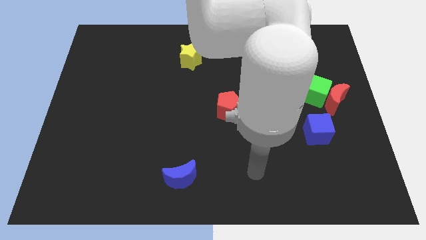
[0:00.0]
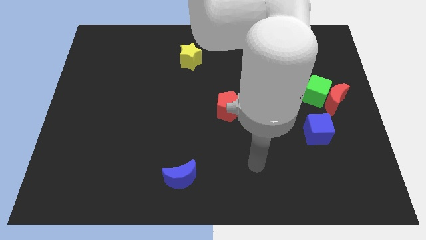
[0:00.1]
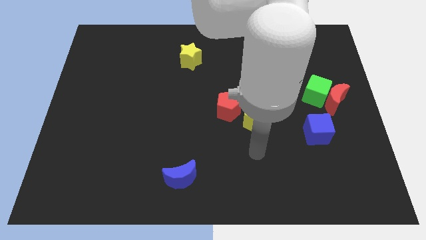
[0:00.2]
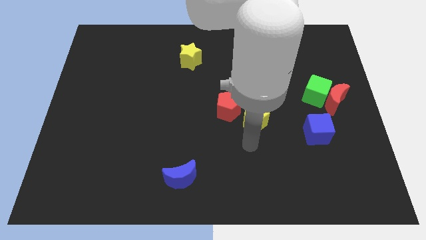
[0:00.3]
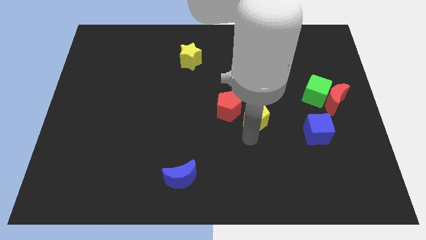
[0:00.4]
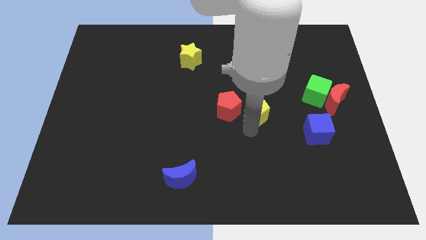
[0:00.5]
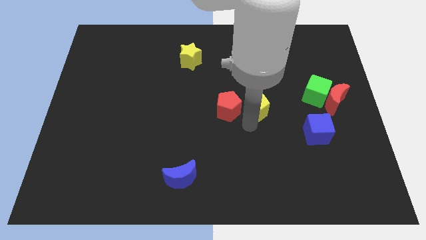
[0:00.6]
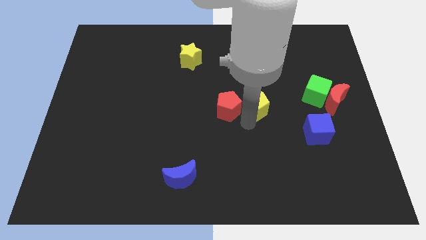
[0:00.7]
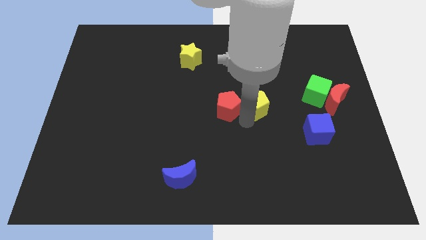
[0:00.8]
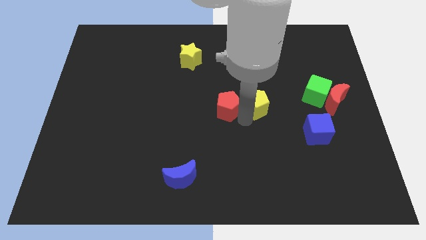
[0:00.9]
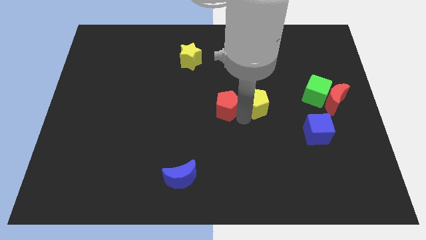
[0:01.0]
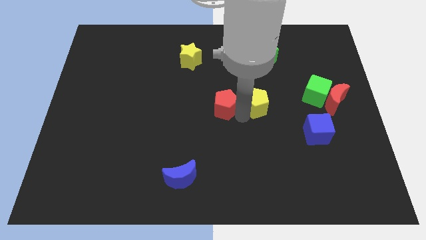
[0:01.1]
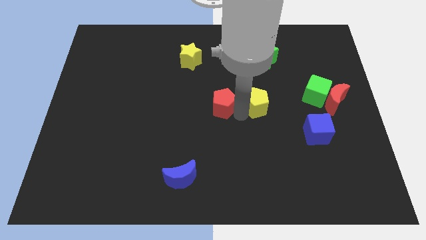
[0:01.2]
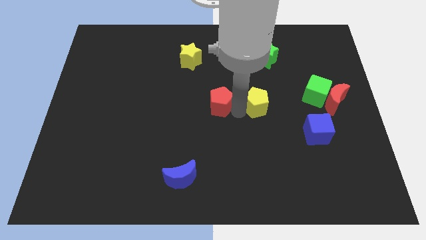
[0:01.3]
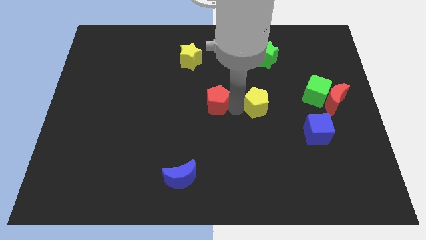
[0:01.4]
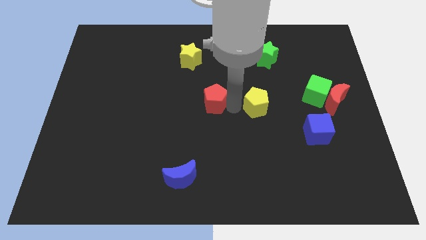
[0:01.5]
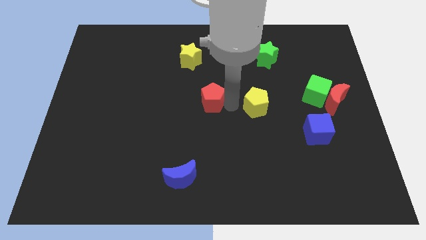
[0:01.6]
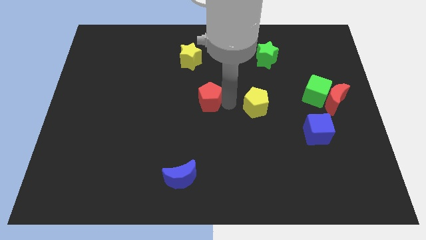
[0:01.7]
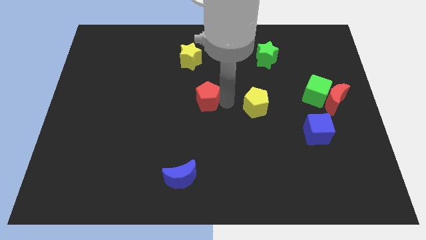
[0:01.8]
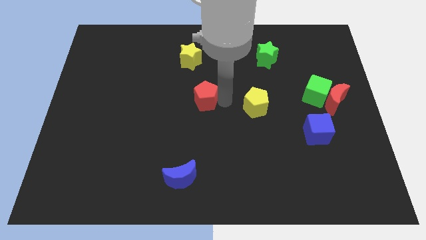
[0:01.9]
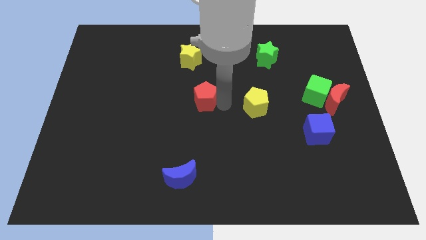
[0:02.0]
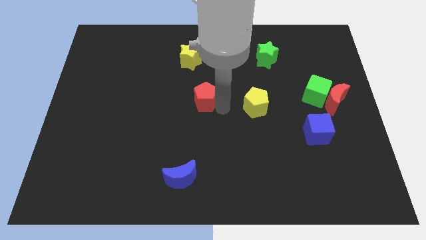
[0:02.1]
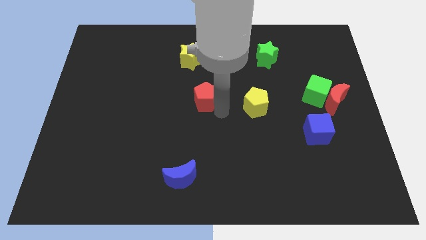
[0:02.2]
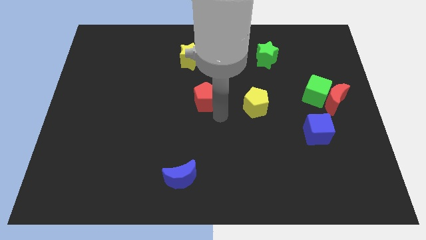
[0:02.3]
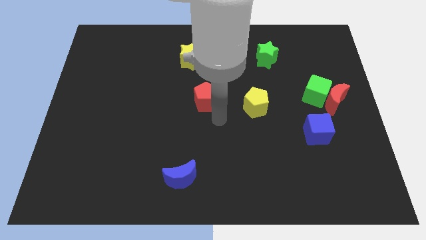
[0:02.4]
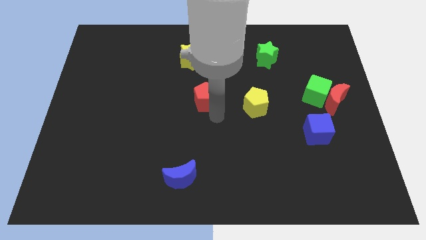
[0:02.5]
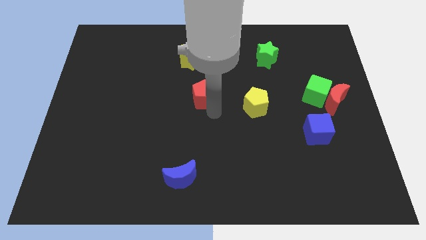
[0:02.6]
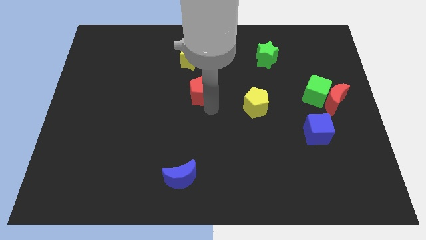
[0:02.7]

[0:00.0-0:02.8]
slightly push the red pentagon upwards and then left

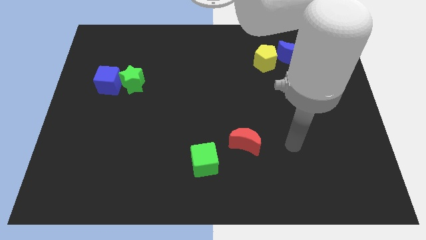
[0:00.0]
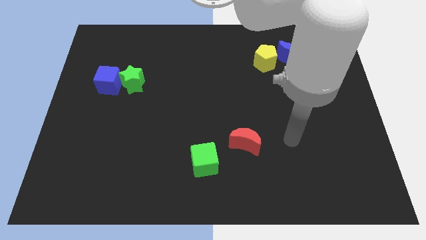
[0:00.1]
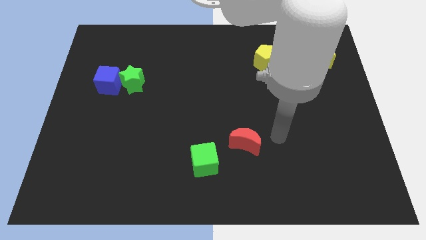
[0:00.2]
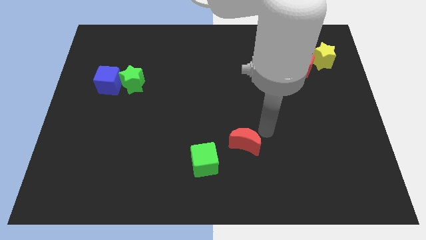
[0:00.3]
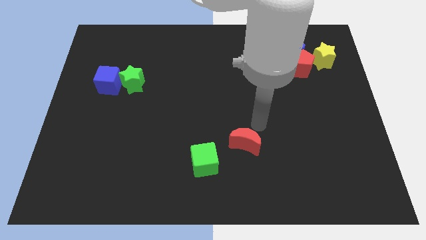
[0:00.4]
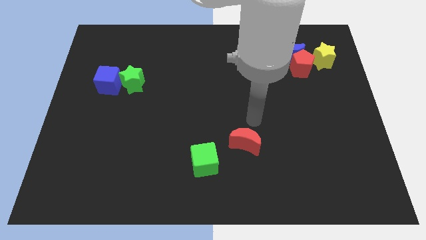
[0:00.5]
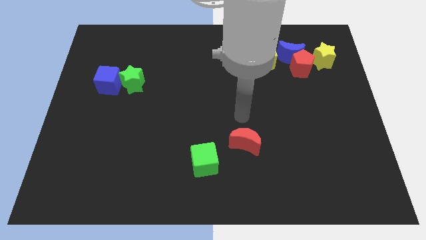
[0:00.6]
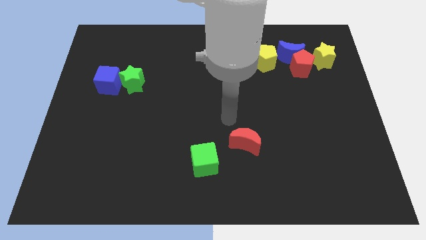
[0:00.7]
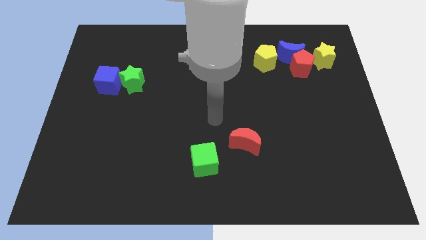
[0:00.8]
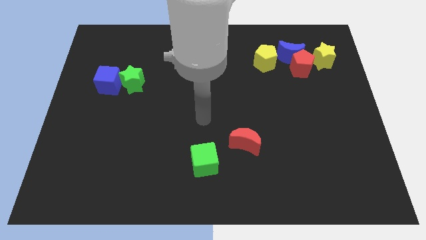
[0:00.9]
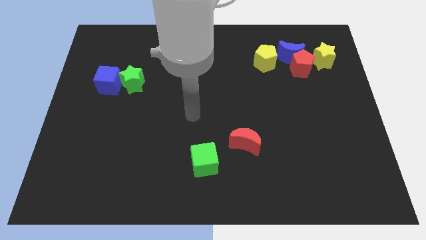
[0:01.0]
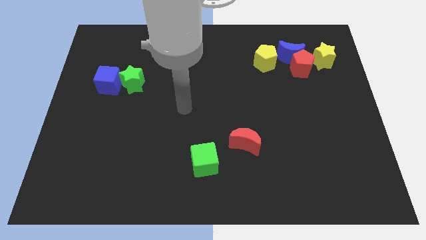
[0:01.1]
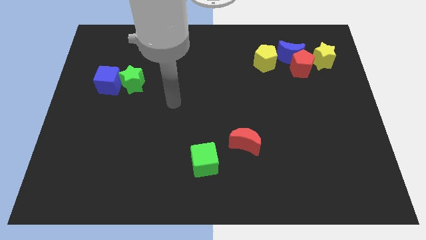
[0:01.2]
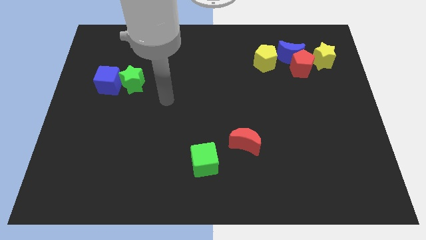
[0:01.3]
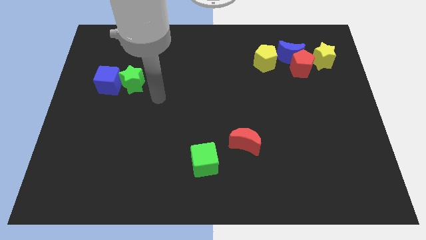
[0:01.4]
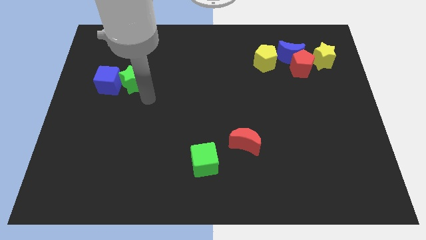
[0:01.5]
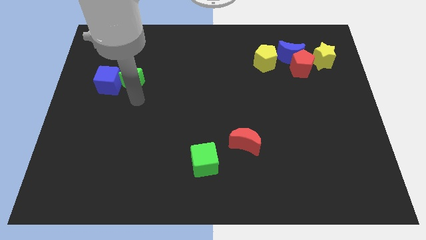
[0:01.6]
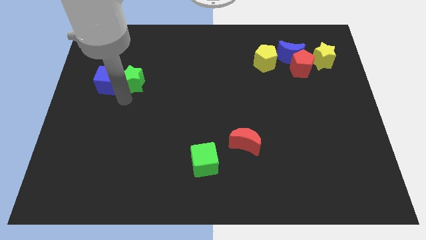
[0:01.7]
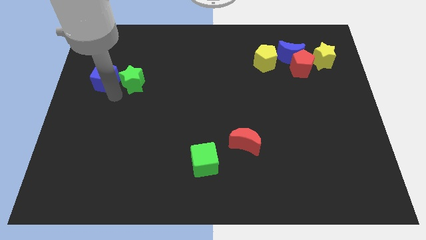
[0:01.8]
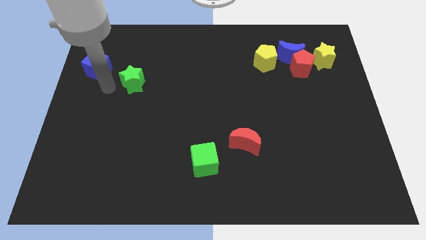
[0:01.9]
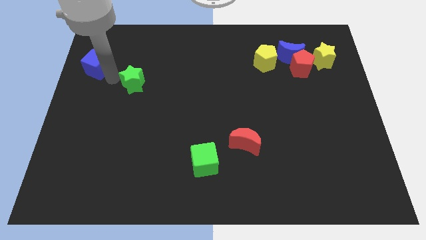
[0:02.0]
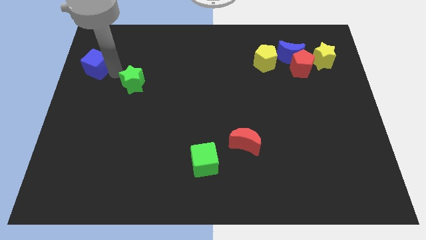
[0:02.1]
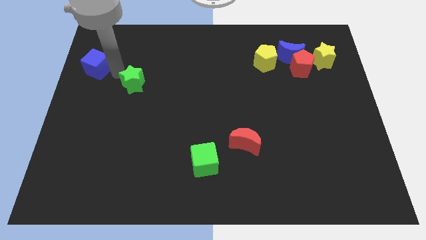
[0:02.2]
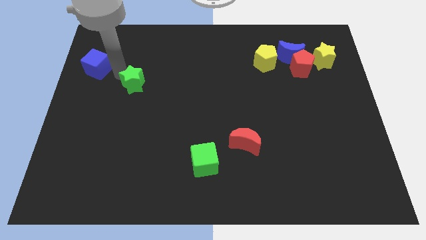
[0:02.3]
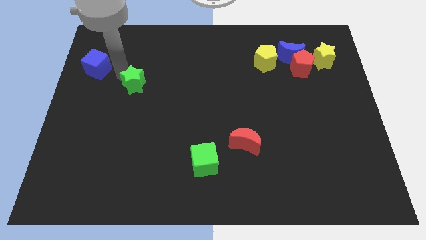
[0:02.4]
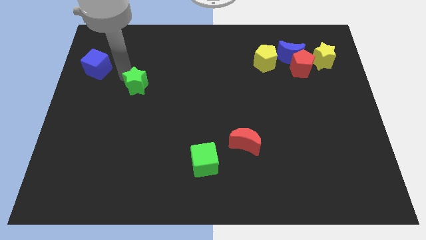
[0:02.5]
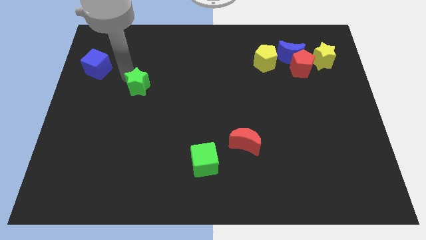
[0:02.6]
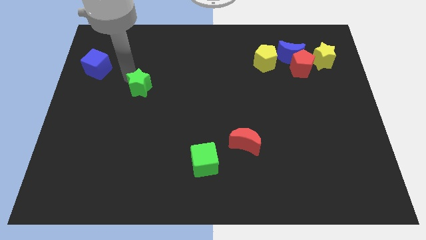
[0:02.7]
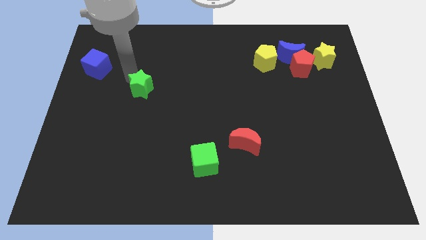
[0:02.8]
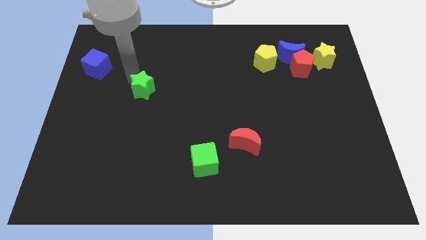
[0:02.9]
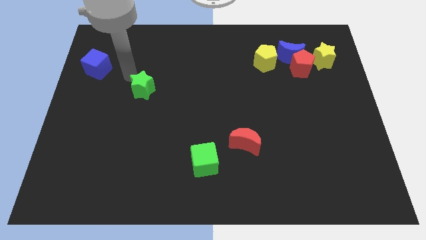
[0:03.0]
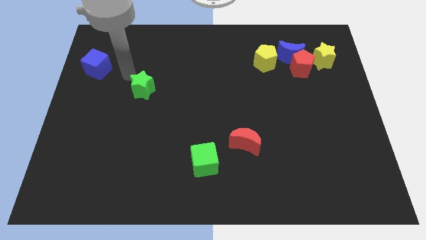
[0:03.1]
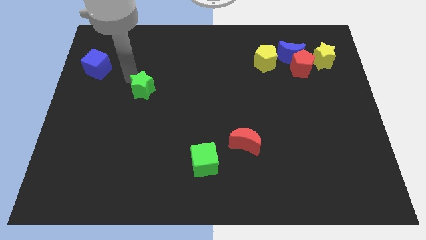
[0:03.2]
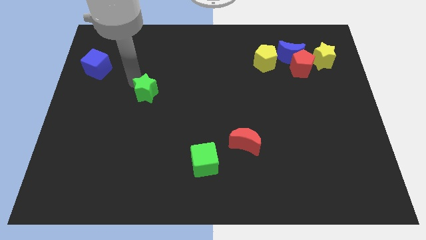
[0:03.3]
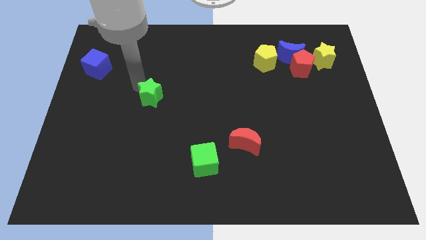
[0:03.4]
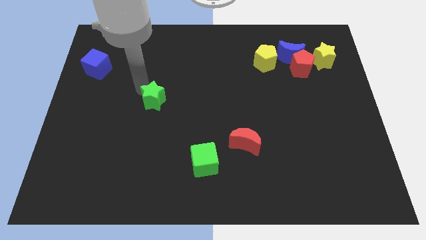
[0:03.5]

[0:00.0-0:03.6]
slightly push the green star downwards and right

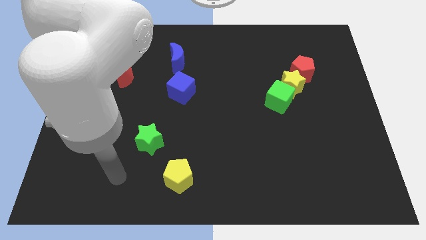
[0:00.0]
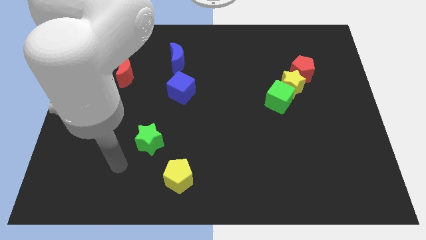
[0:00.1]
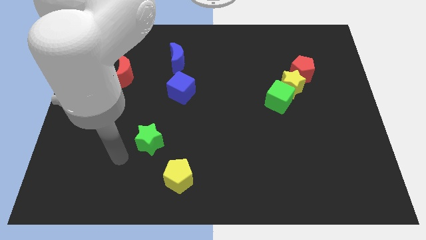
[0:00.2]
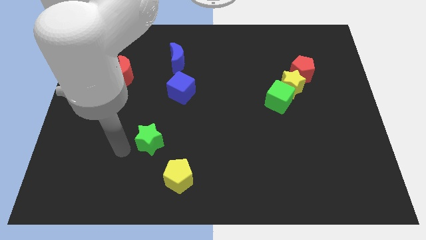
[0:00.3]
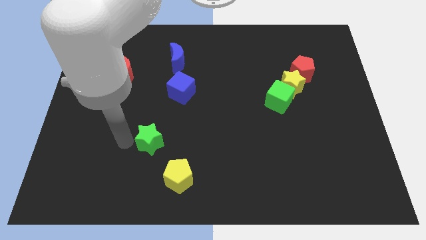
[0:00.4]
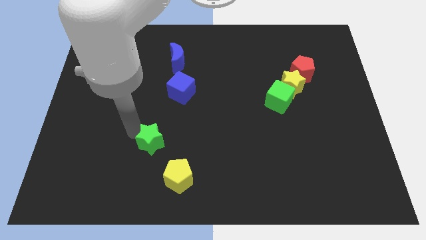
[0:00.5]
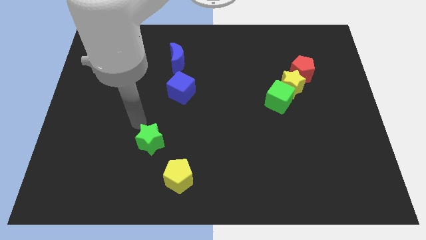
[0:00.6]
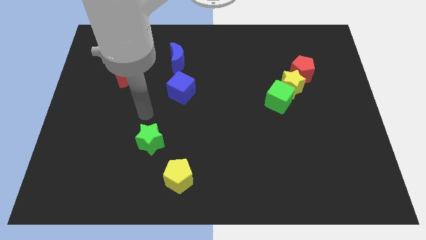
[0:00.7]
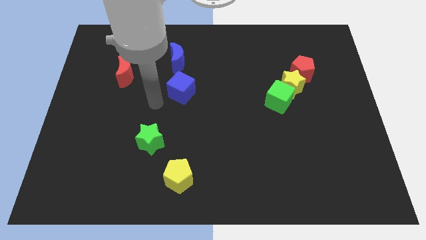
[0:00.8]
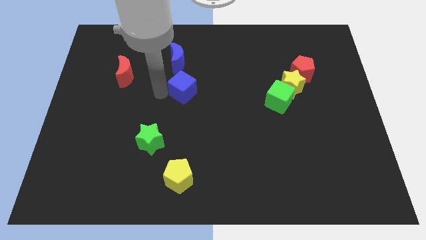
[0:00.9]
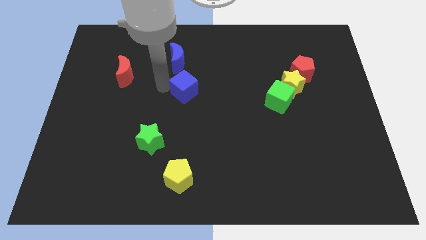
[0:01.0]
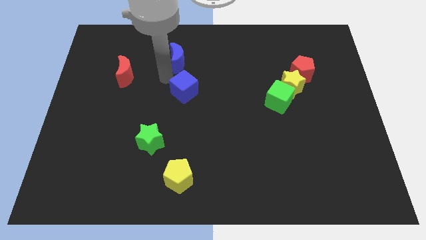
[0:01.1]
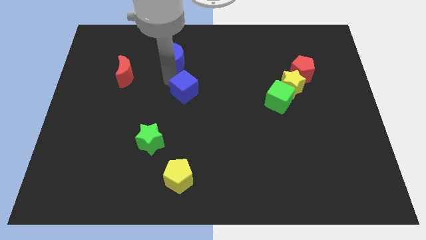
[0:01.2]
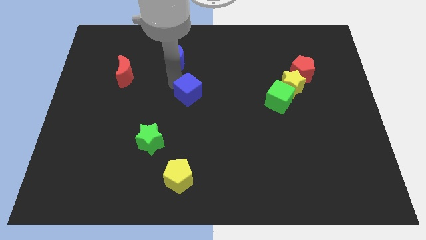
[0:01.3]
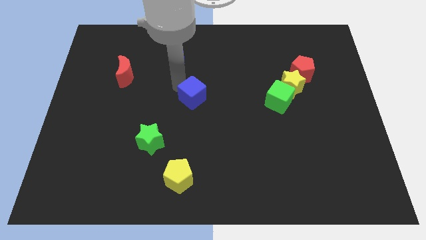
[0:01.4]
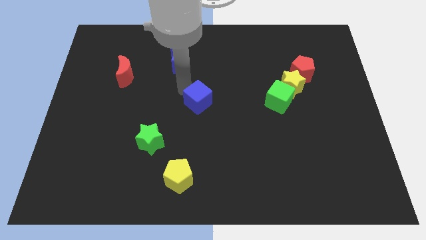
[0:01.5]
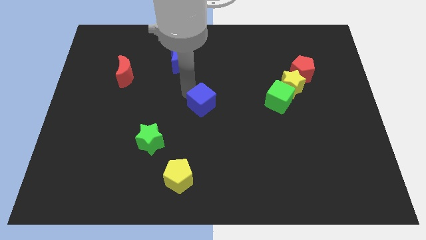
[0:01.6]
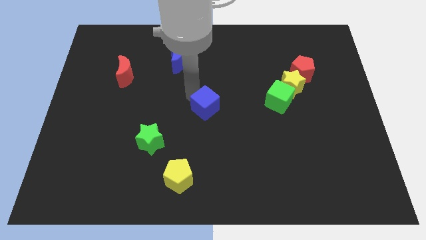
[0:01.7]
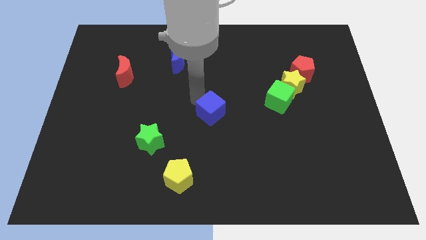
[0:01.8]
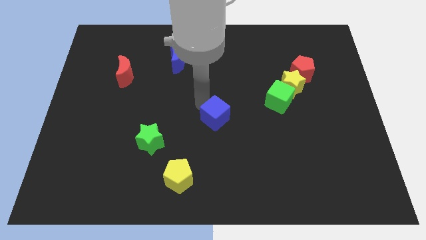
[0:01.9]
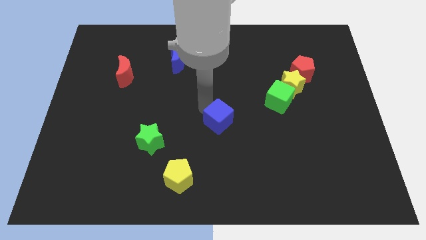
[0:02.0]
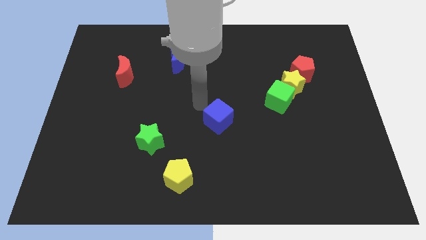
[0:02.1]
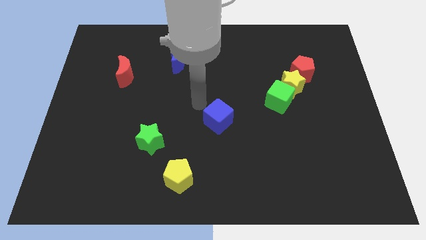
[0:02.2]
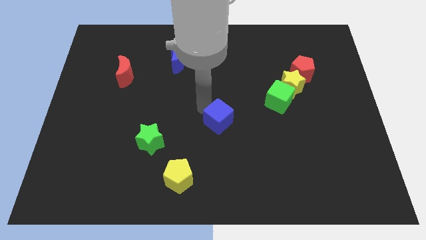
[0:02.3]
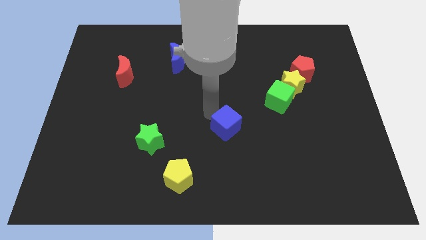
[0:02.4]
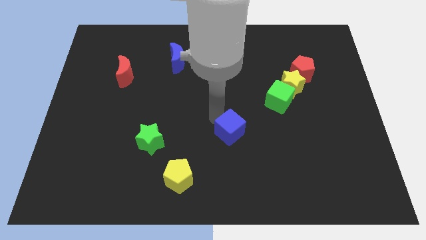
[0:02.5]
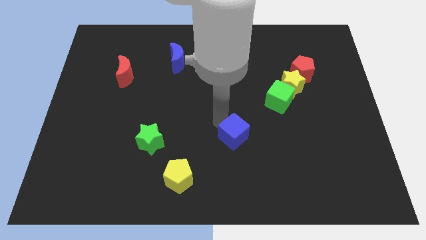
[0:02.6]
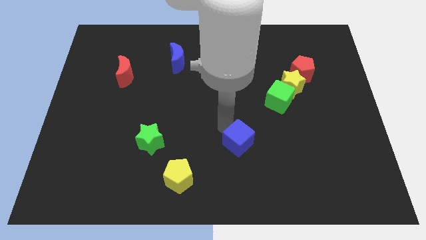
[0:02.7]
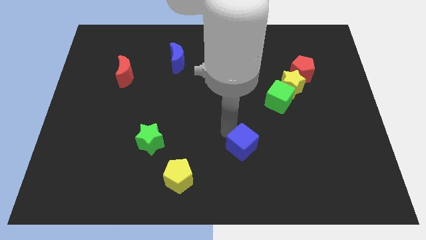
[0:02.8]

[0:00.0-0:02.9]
slide the blue cube downwards and right diagonally
